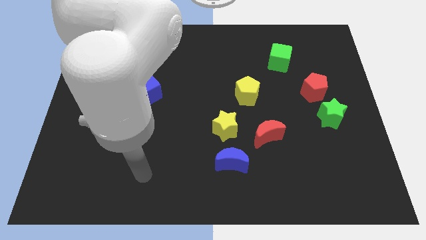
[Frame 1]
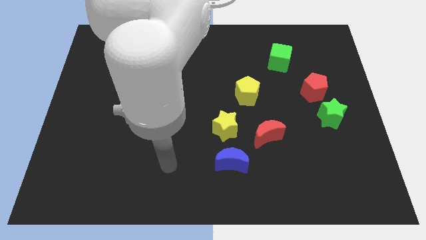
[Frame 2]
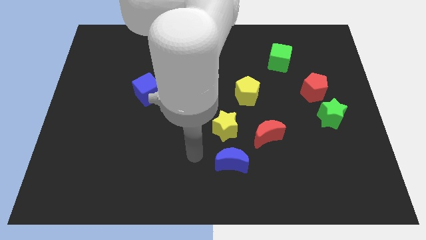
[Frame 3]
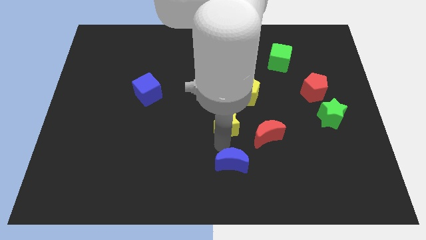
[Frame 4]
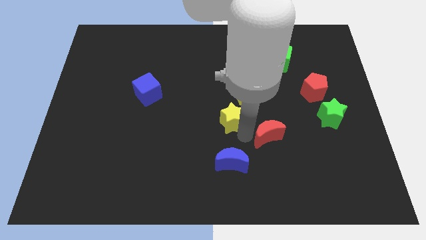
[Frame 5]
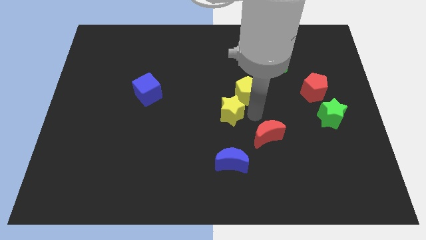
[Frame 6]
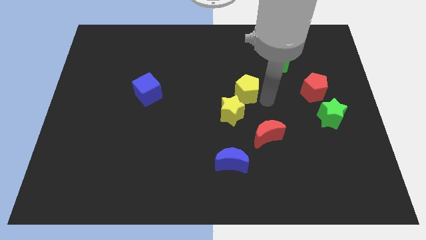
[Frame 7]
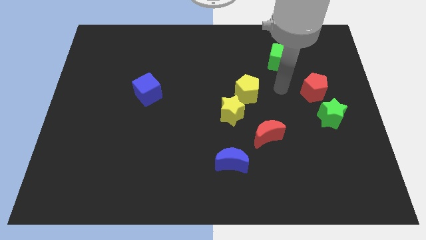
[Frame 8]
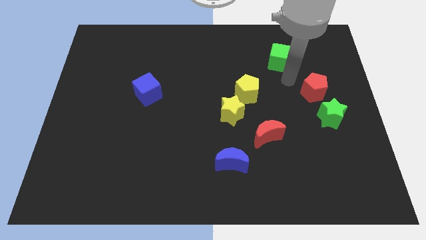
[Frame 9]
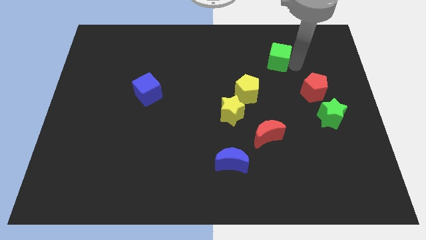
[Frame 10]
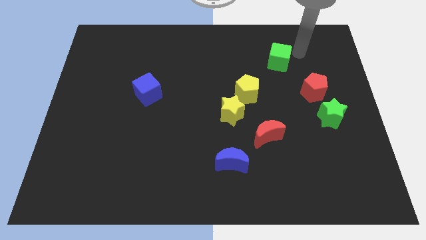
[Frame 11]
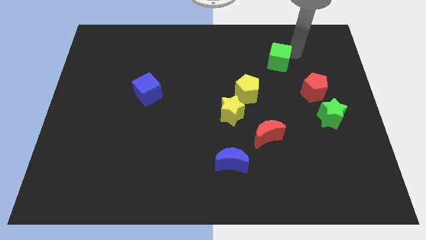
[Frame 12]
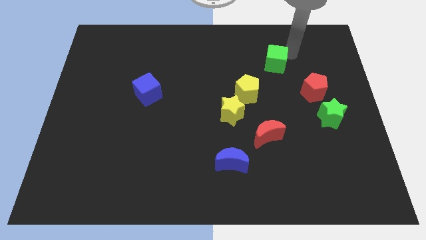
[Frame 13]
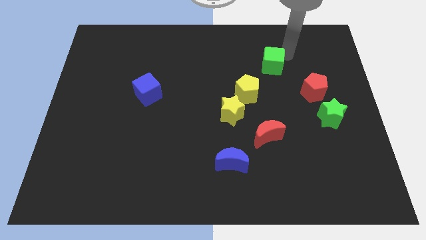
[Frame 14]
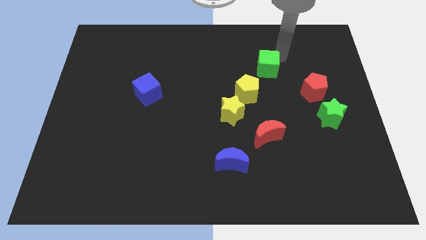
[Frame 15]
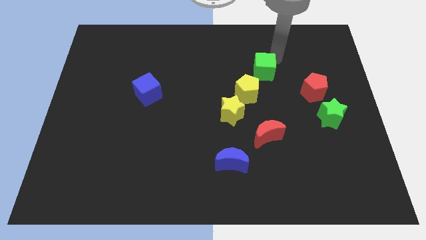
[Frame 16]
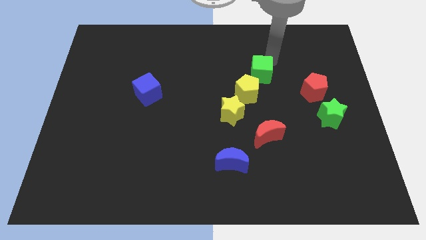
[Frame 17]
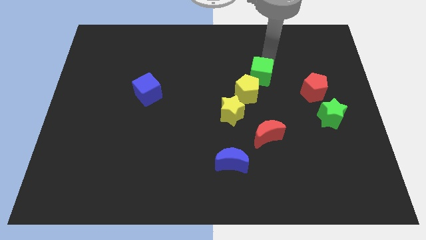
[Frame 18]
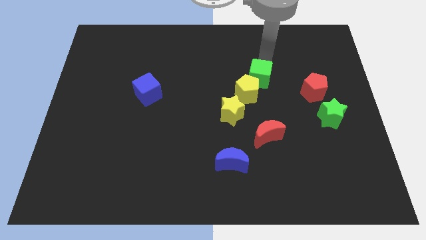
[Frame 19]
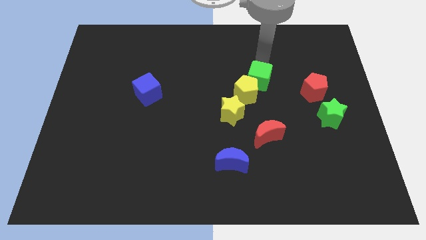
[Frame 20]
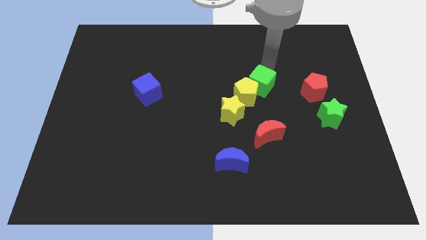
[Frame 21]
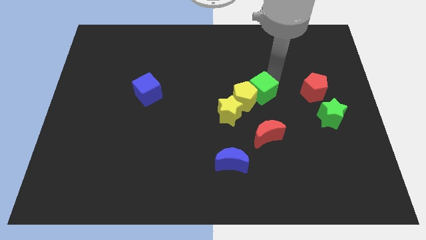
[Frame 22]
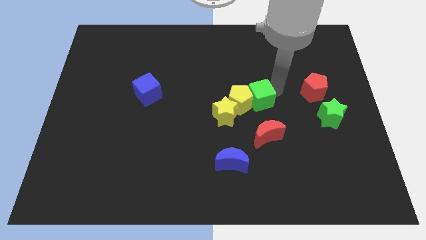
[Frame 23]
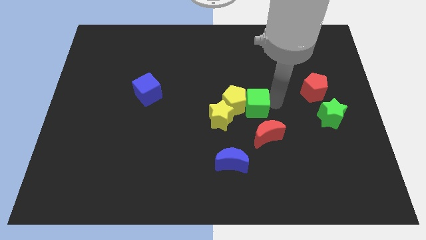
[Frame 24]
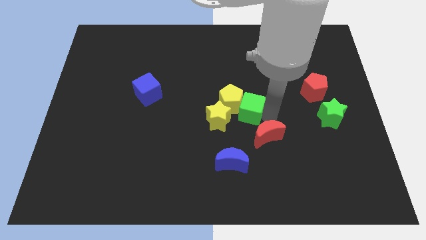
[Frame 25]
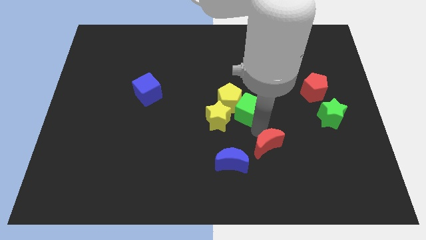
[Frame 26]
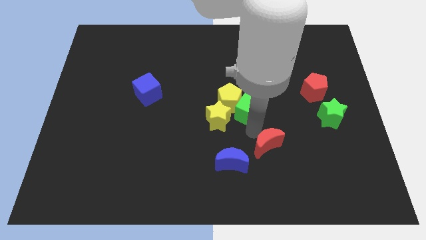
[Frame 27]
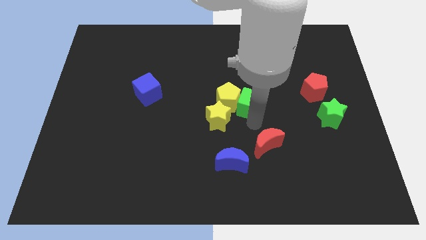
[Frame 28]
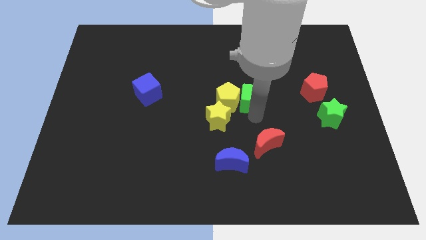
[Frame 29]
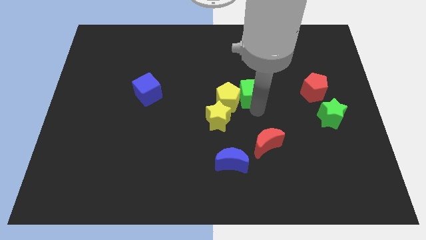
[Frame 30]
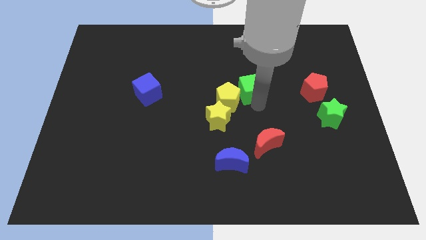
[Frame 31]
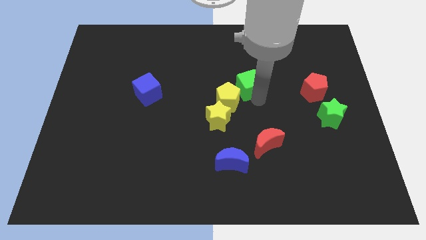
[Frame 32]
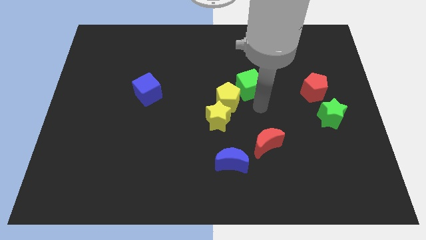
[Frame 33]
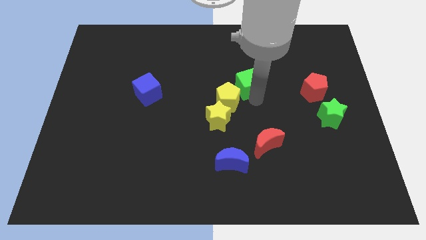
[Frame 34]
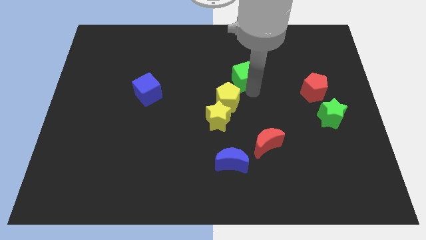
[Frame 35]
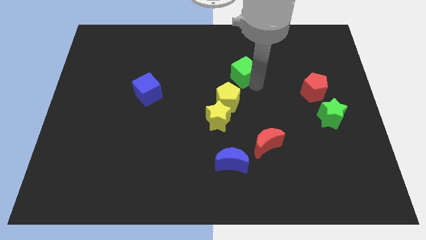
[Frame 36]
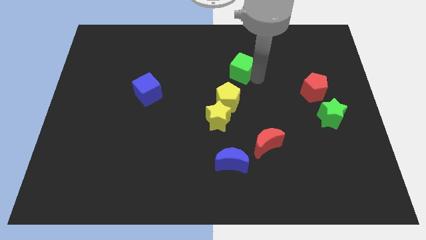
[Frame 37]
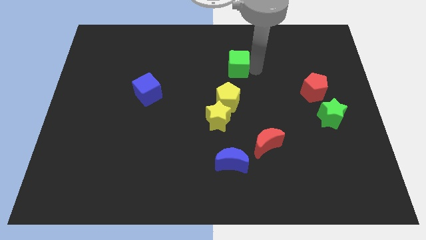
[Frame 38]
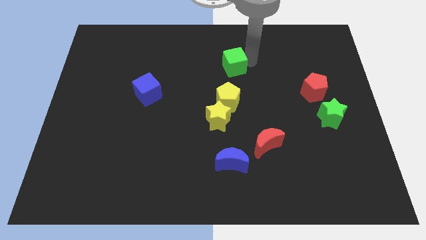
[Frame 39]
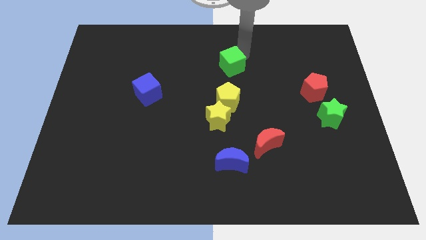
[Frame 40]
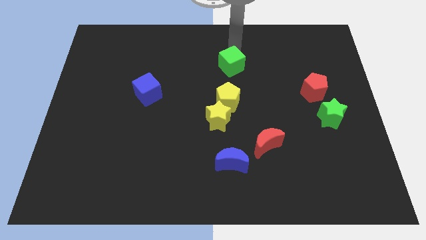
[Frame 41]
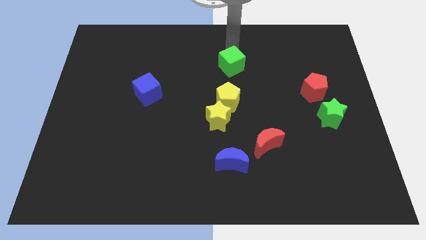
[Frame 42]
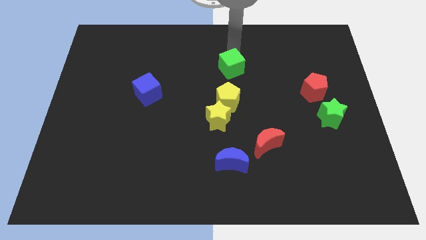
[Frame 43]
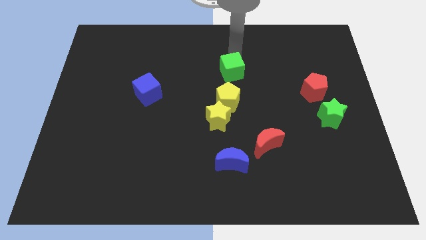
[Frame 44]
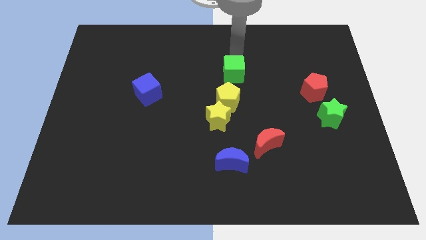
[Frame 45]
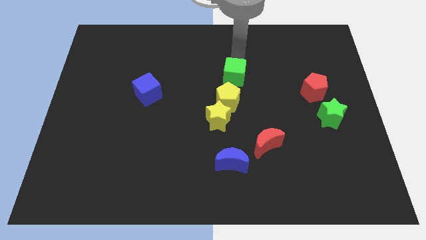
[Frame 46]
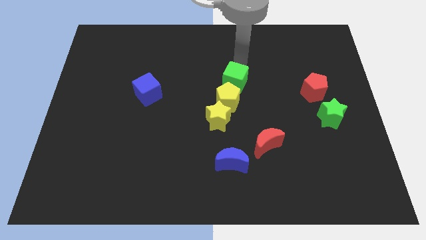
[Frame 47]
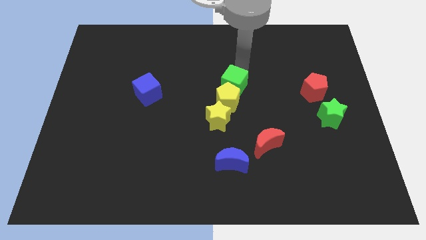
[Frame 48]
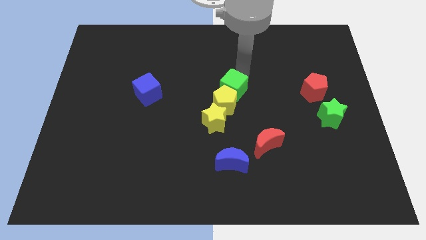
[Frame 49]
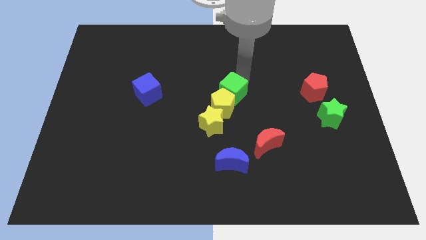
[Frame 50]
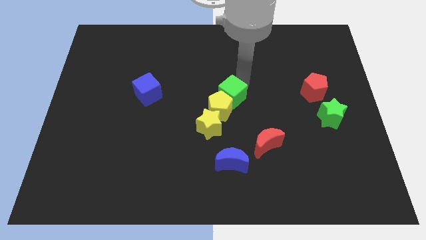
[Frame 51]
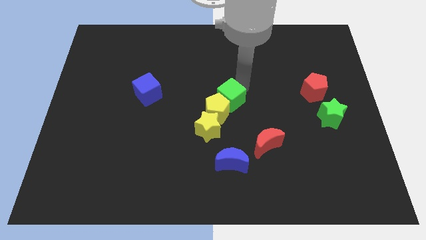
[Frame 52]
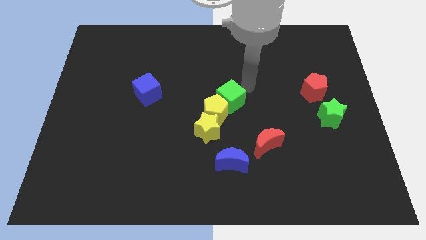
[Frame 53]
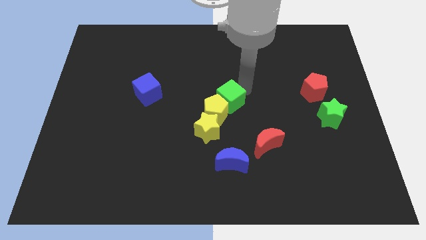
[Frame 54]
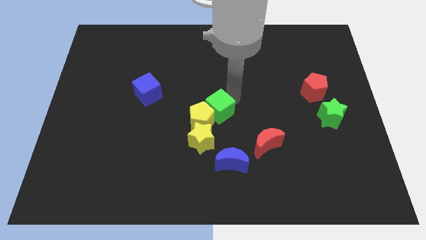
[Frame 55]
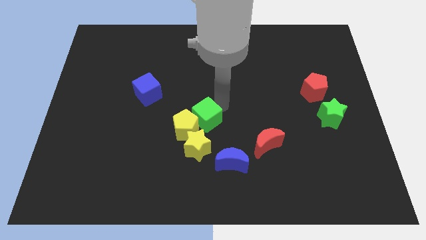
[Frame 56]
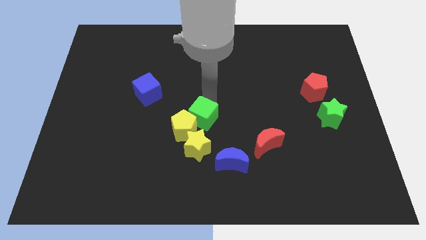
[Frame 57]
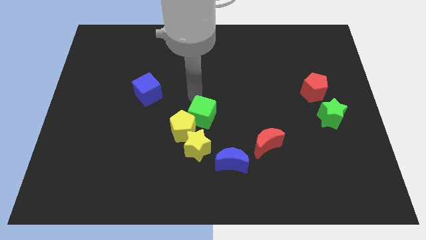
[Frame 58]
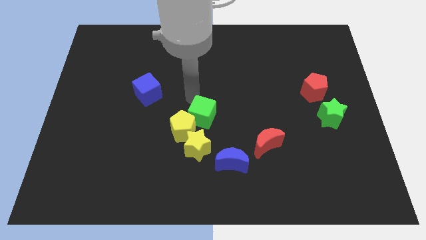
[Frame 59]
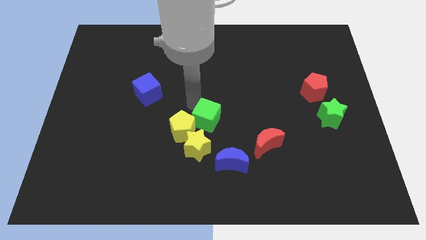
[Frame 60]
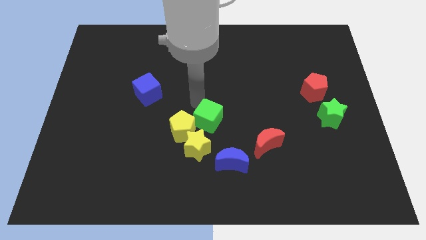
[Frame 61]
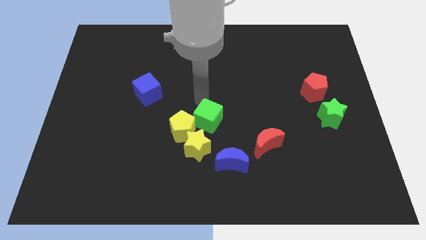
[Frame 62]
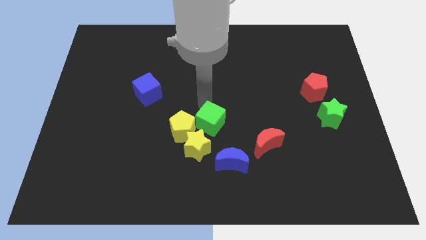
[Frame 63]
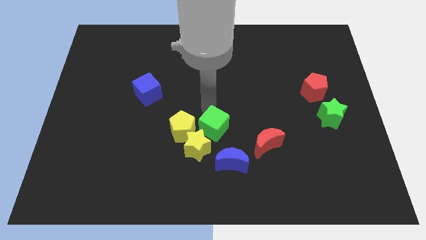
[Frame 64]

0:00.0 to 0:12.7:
slide the green cube just left of the red moon
